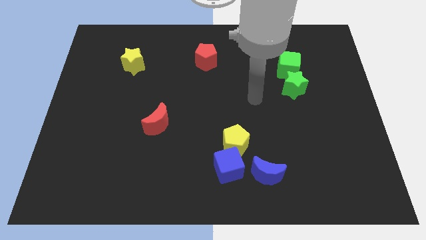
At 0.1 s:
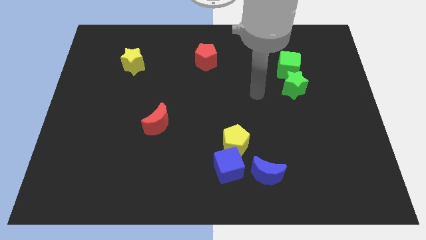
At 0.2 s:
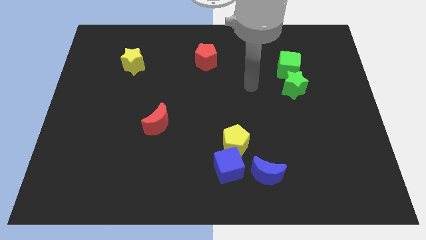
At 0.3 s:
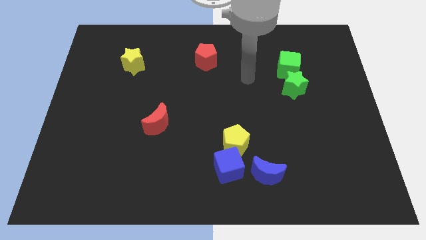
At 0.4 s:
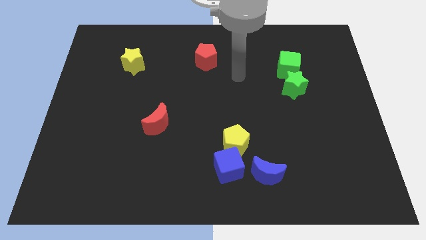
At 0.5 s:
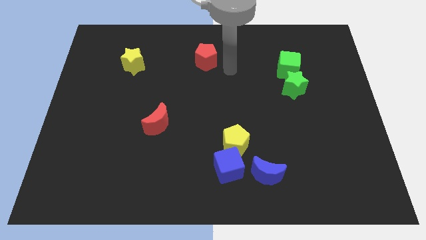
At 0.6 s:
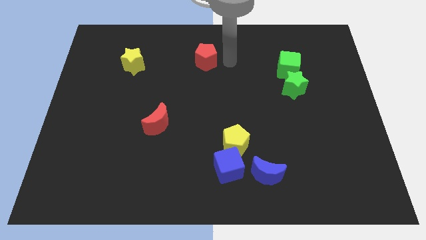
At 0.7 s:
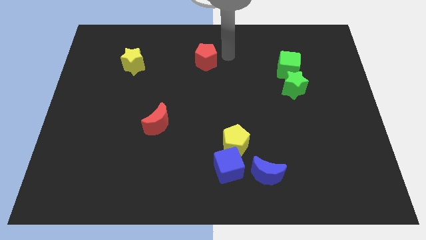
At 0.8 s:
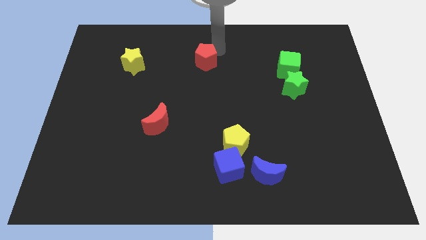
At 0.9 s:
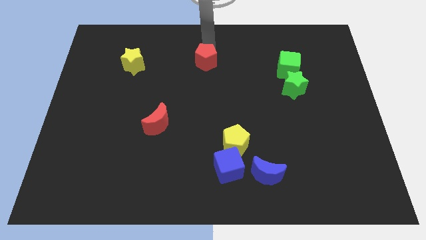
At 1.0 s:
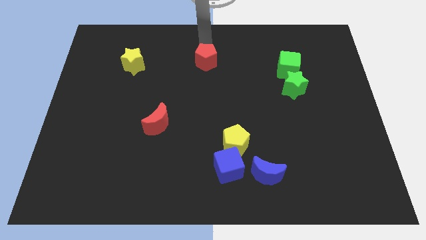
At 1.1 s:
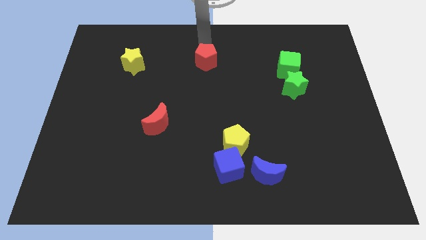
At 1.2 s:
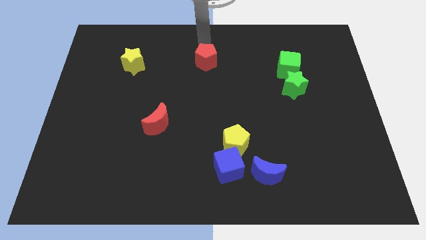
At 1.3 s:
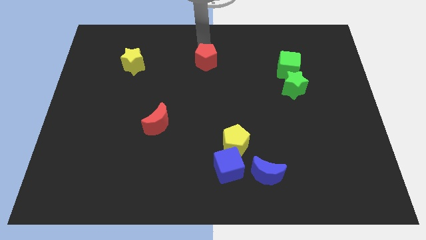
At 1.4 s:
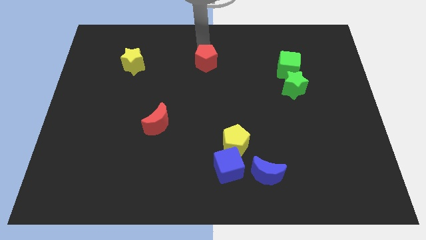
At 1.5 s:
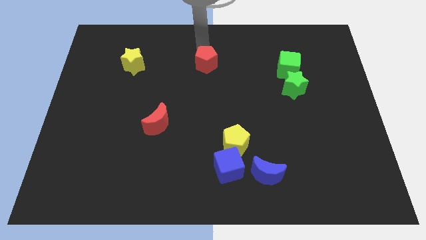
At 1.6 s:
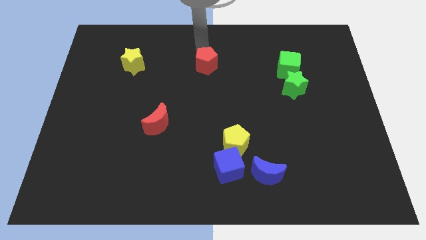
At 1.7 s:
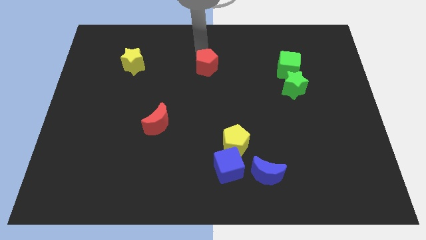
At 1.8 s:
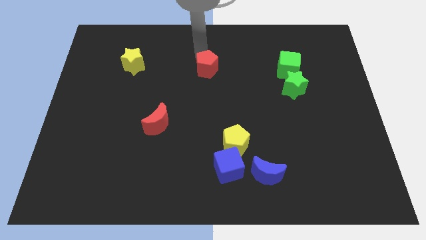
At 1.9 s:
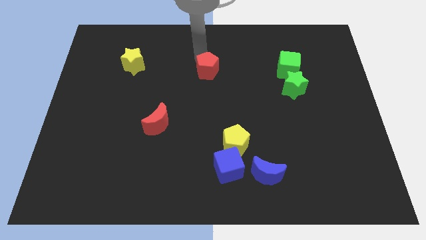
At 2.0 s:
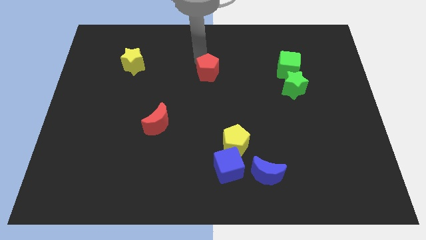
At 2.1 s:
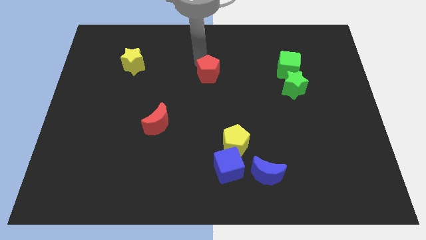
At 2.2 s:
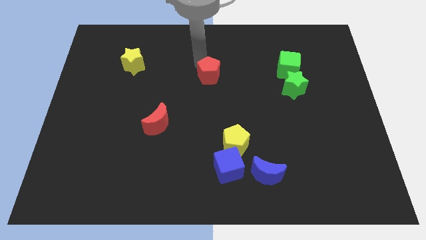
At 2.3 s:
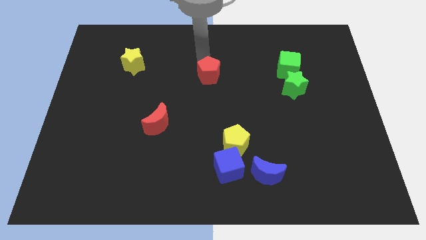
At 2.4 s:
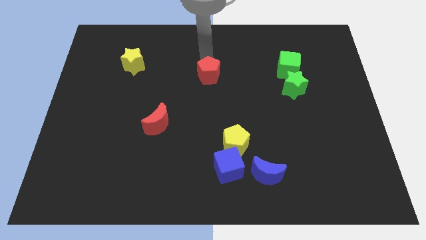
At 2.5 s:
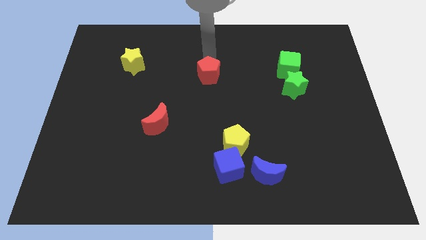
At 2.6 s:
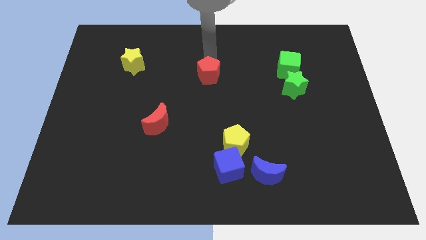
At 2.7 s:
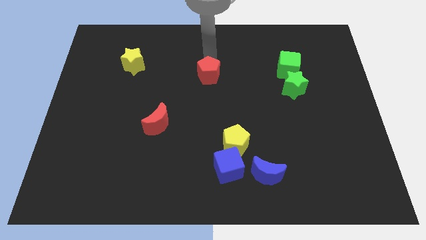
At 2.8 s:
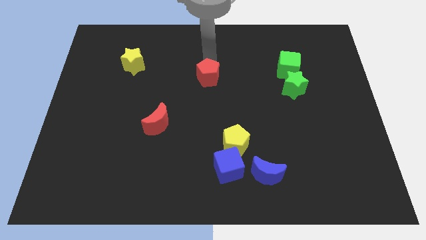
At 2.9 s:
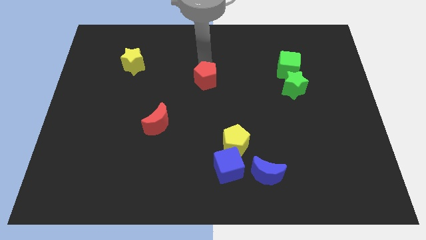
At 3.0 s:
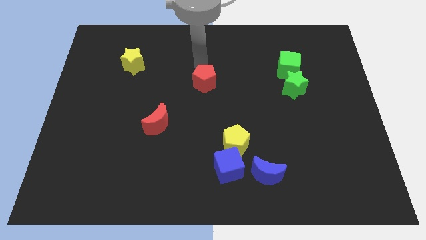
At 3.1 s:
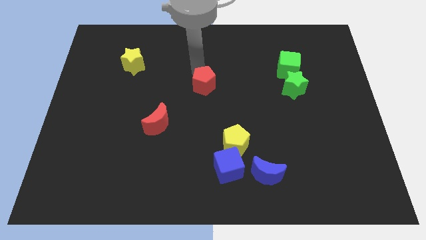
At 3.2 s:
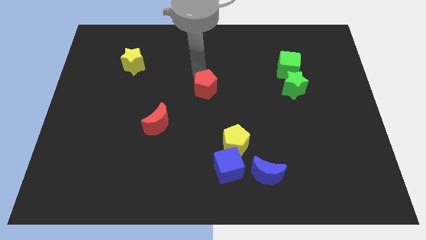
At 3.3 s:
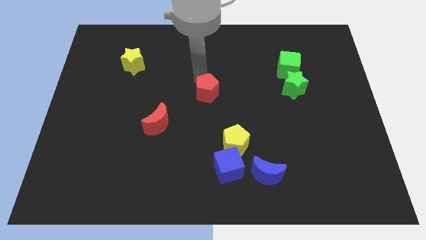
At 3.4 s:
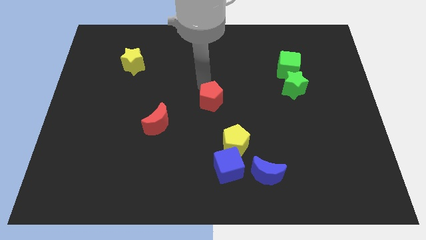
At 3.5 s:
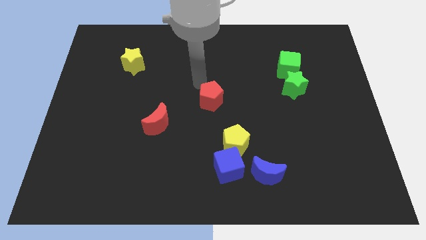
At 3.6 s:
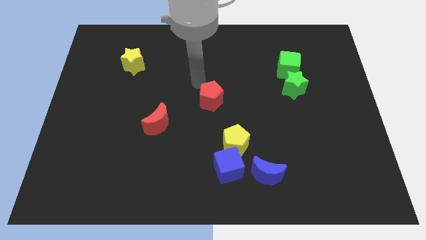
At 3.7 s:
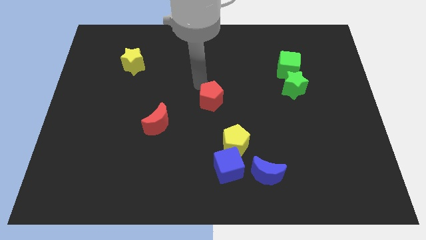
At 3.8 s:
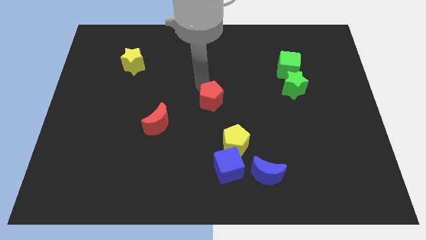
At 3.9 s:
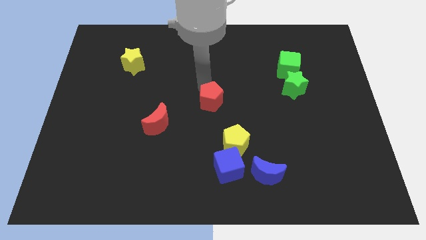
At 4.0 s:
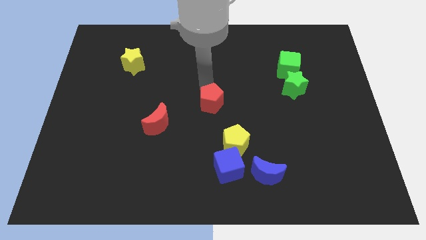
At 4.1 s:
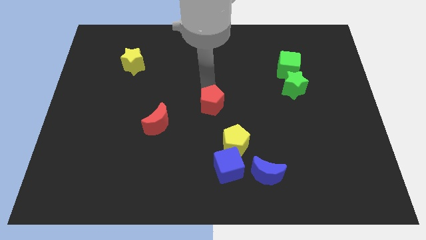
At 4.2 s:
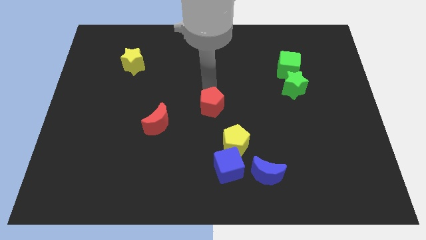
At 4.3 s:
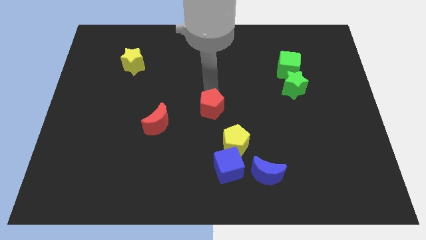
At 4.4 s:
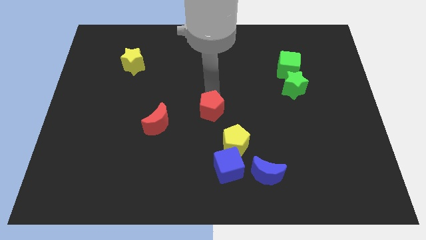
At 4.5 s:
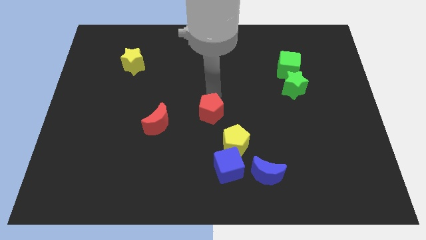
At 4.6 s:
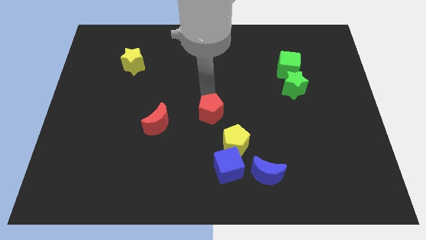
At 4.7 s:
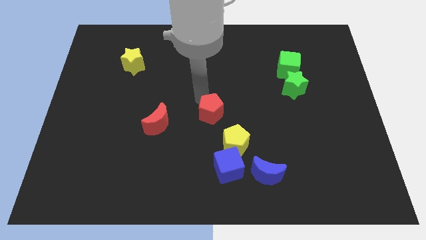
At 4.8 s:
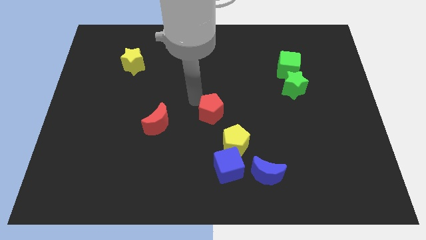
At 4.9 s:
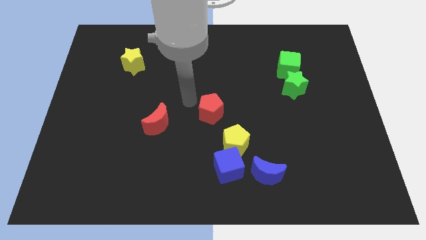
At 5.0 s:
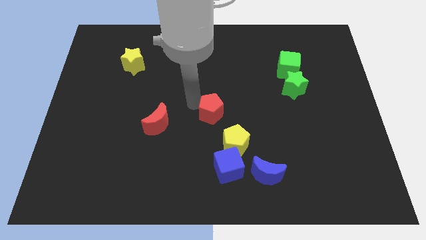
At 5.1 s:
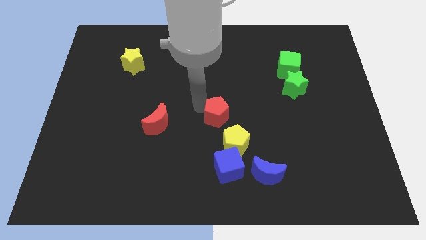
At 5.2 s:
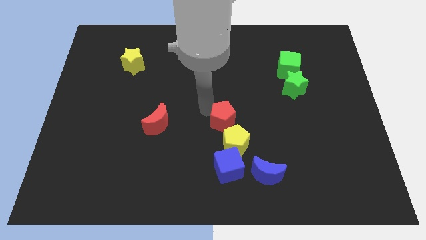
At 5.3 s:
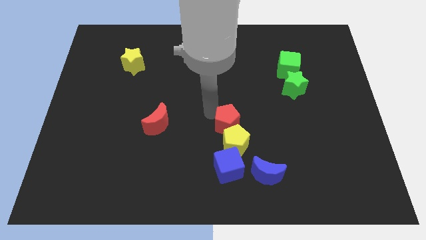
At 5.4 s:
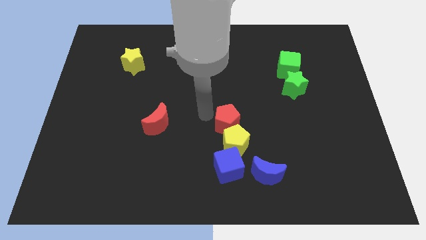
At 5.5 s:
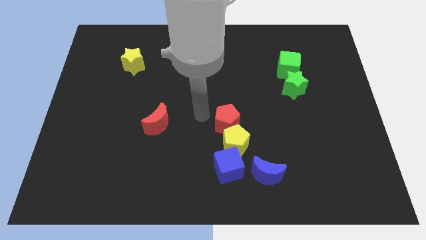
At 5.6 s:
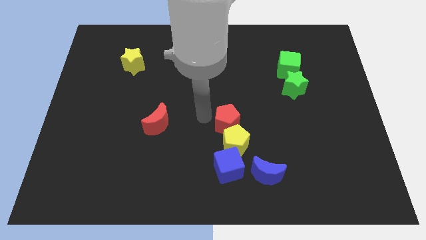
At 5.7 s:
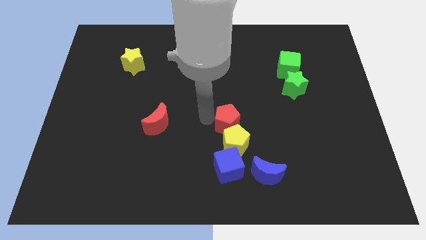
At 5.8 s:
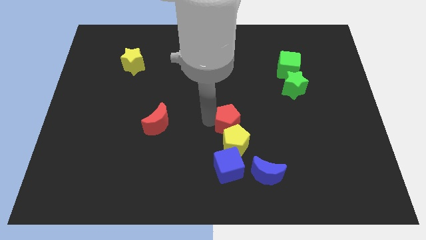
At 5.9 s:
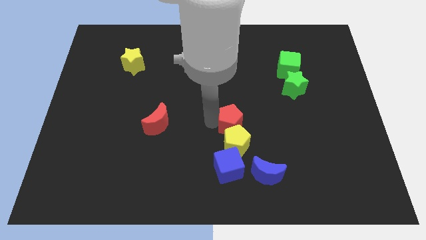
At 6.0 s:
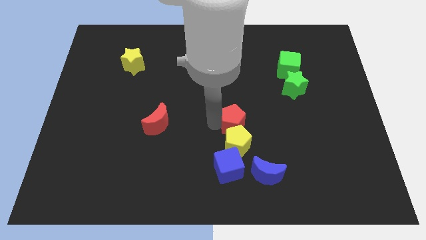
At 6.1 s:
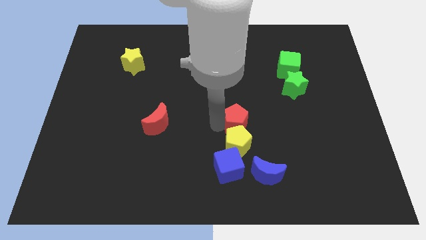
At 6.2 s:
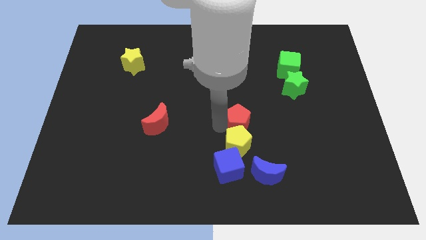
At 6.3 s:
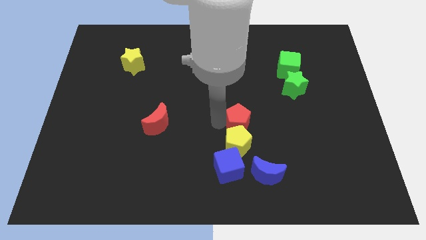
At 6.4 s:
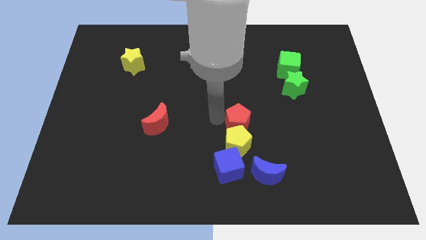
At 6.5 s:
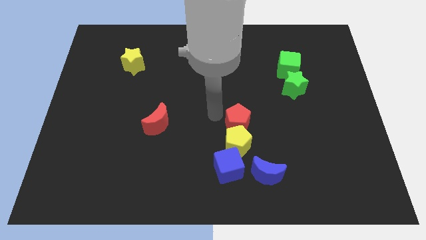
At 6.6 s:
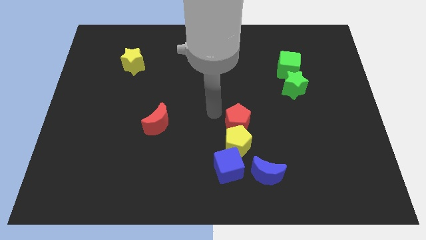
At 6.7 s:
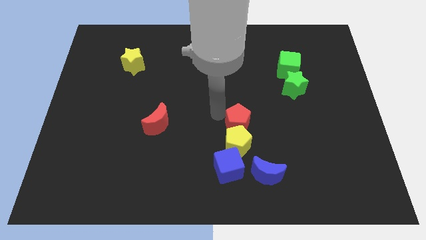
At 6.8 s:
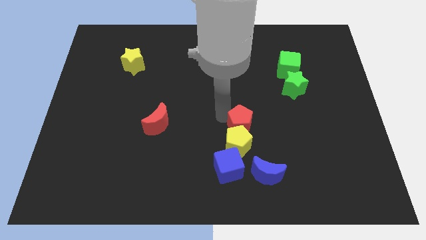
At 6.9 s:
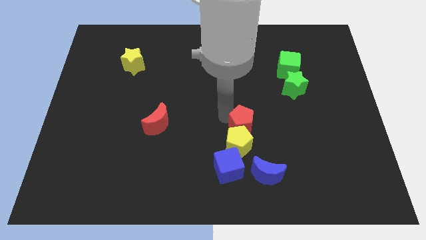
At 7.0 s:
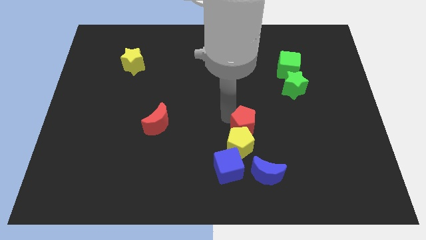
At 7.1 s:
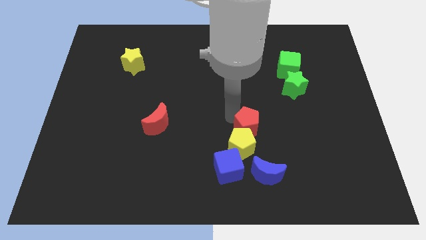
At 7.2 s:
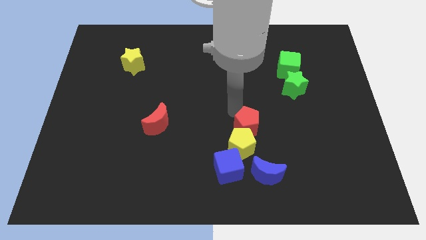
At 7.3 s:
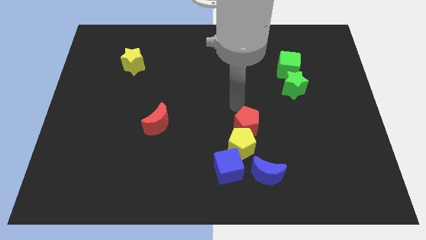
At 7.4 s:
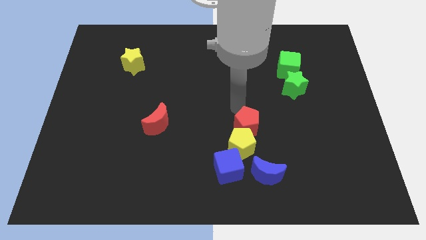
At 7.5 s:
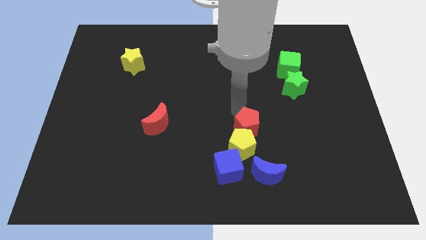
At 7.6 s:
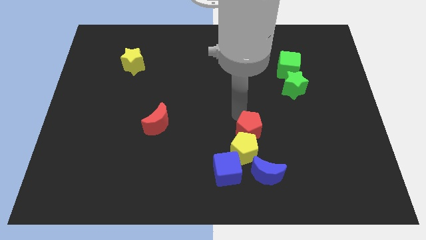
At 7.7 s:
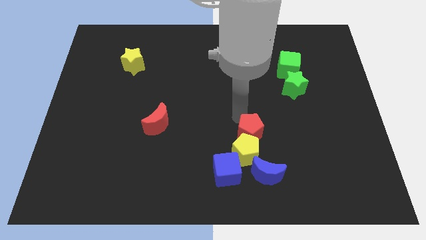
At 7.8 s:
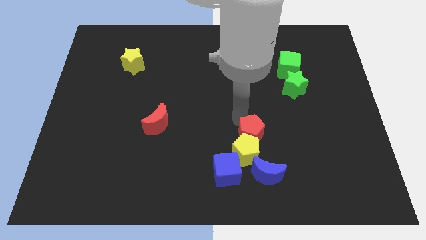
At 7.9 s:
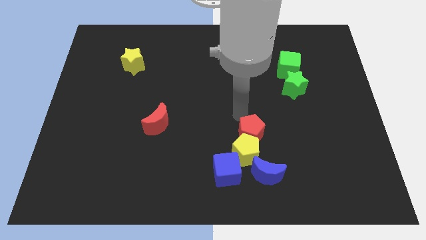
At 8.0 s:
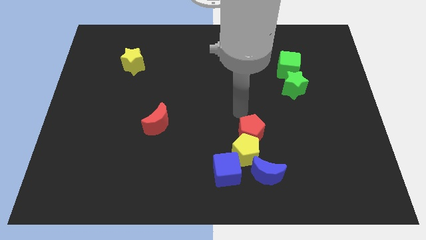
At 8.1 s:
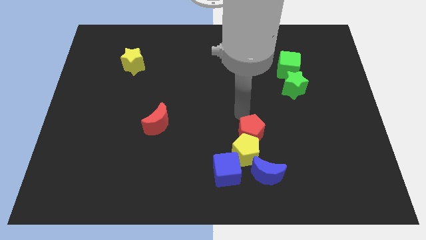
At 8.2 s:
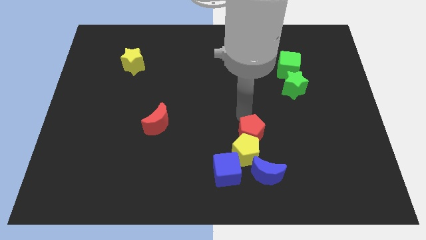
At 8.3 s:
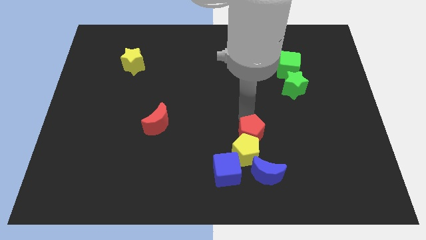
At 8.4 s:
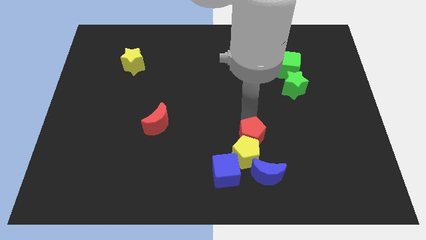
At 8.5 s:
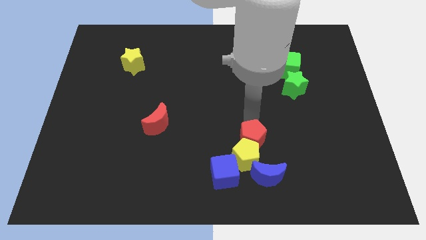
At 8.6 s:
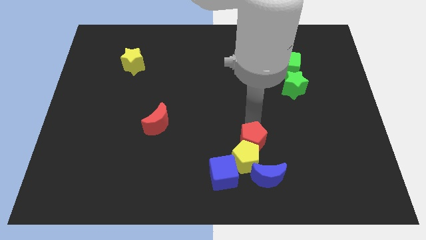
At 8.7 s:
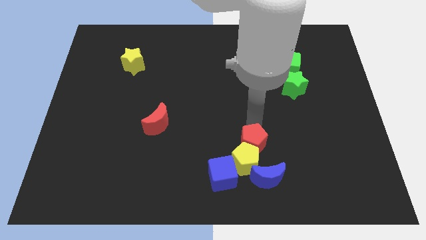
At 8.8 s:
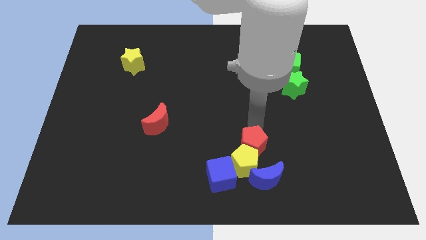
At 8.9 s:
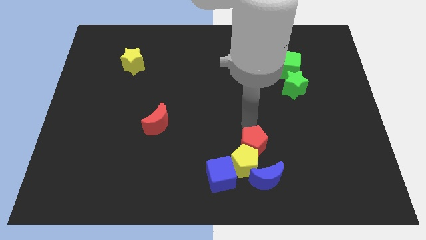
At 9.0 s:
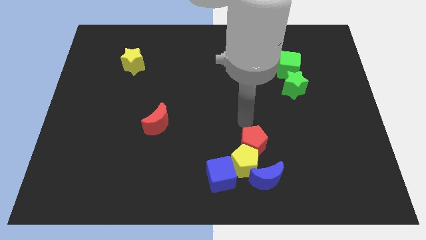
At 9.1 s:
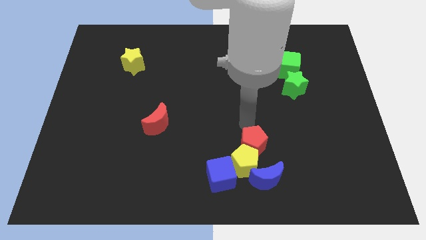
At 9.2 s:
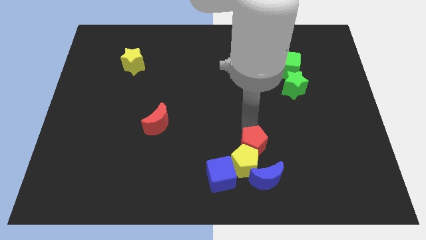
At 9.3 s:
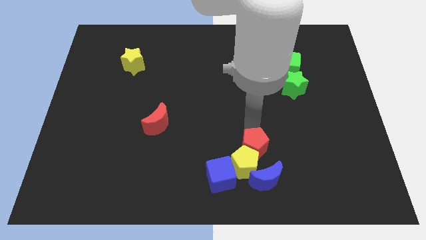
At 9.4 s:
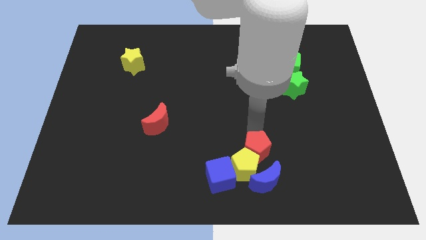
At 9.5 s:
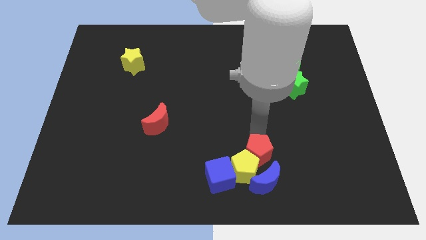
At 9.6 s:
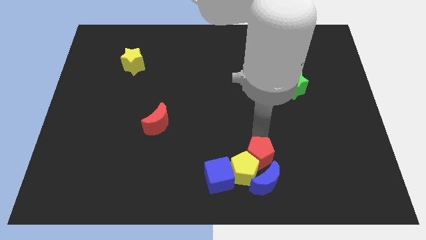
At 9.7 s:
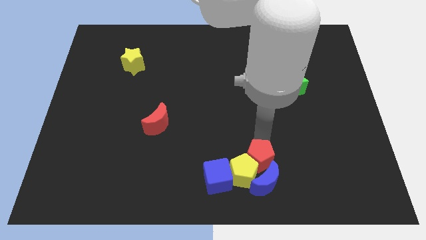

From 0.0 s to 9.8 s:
slide the red pentagon close to the blue moon
